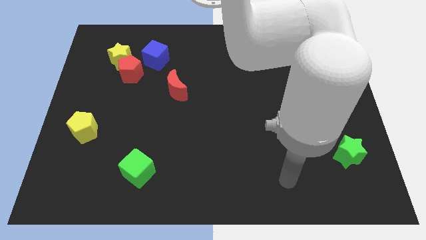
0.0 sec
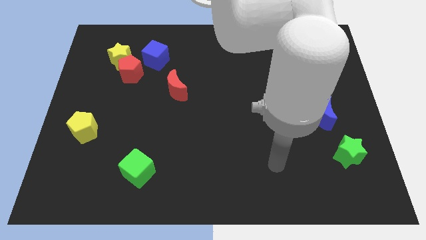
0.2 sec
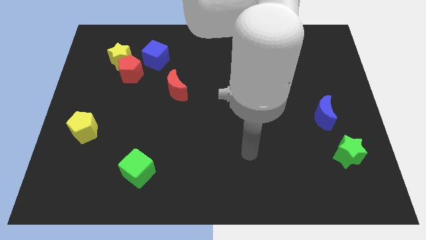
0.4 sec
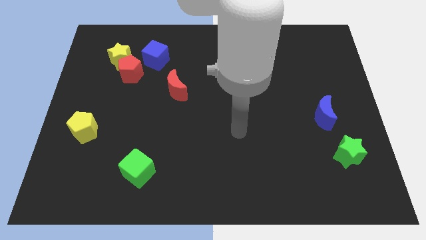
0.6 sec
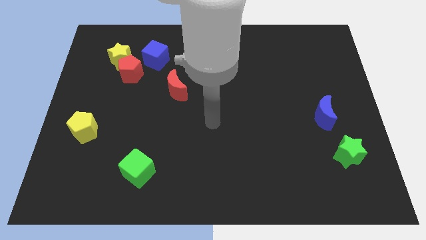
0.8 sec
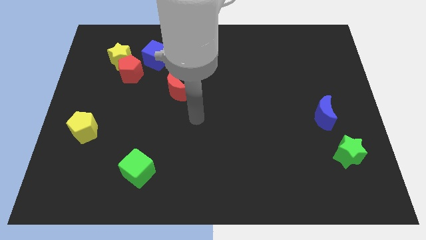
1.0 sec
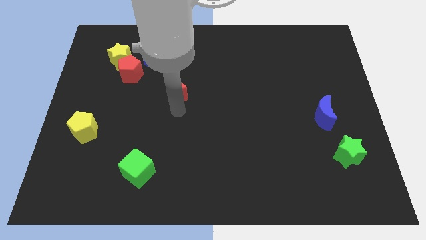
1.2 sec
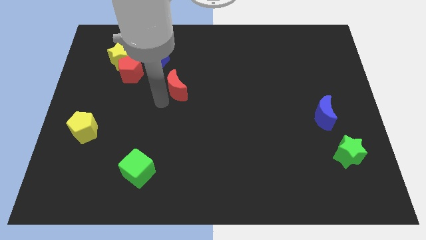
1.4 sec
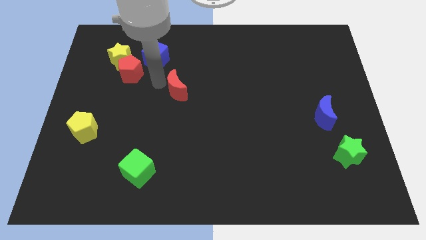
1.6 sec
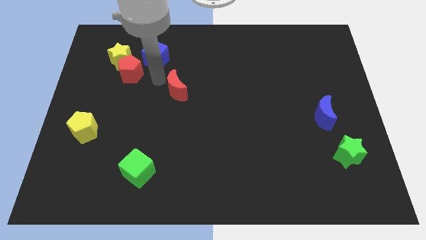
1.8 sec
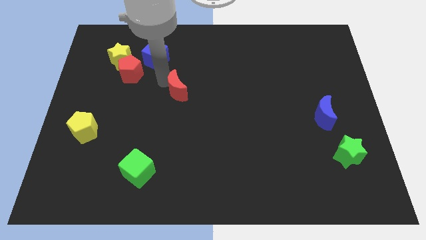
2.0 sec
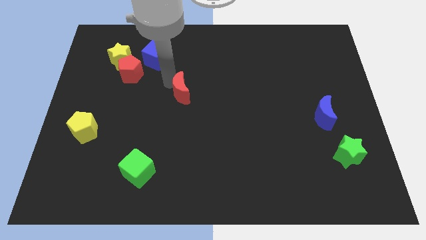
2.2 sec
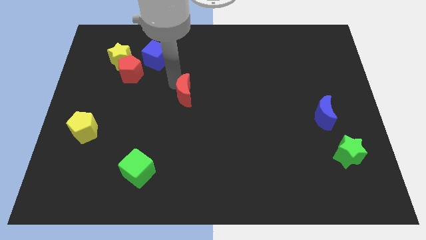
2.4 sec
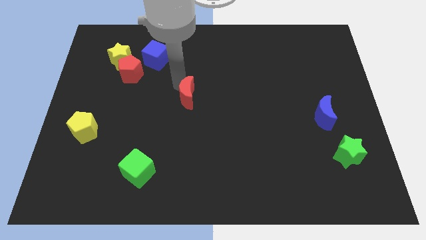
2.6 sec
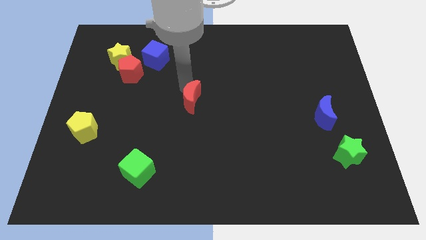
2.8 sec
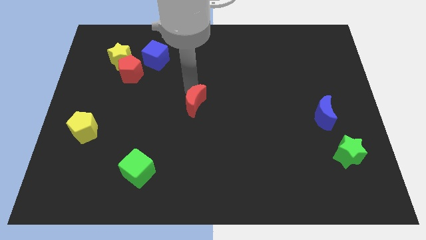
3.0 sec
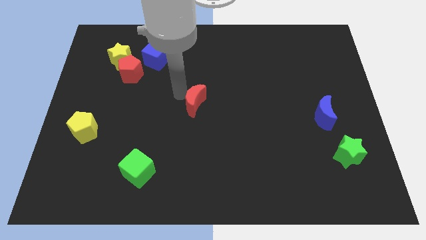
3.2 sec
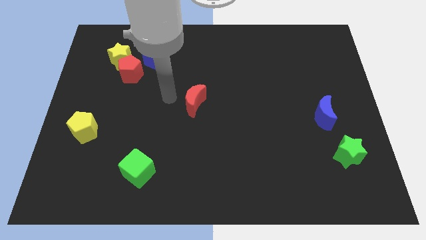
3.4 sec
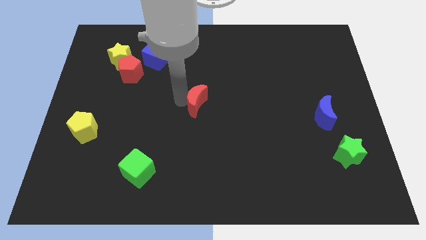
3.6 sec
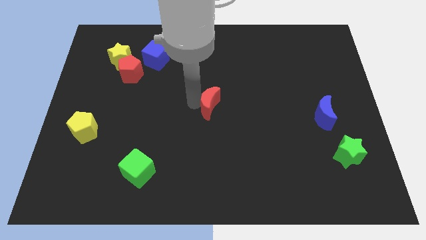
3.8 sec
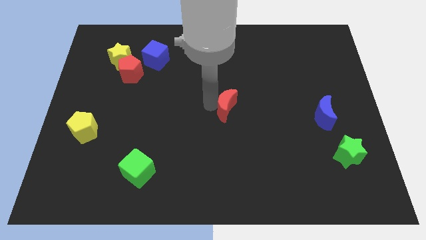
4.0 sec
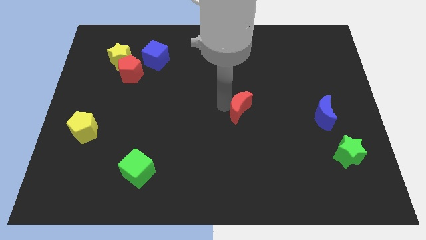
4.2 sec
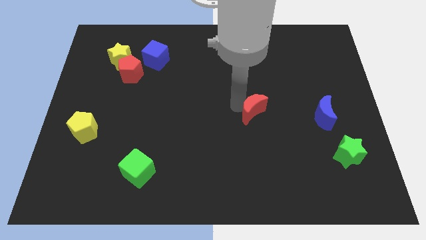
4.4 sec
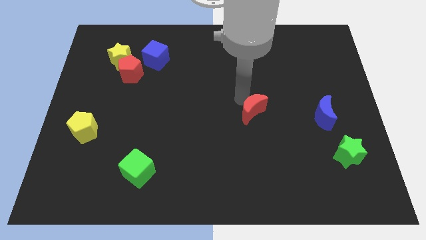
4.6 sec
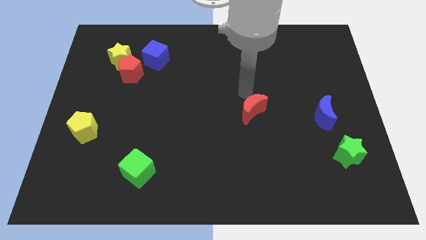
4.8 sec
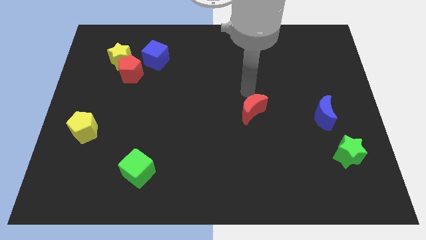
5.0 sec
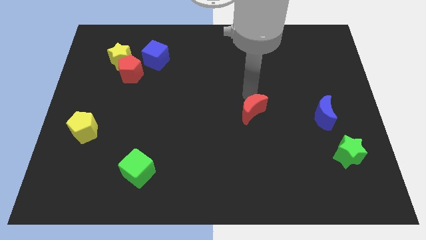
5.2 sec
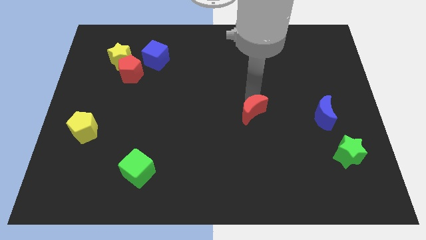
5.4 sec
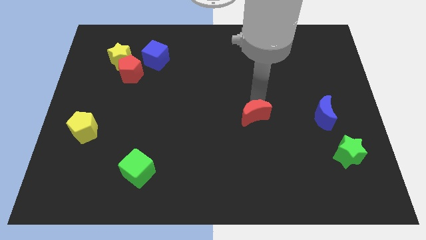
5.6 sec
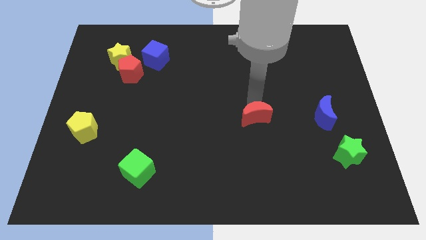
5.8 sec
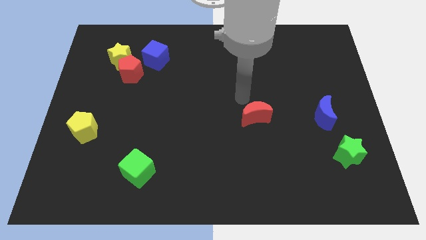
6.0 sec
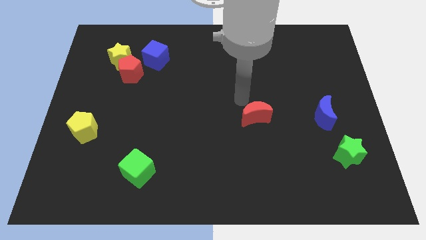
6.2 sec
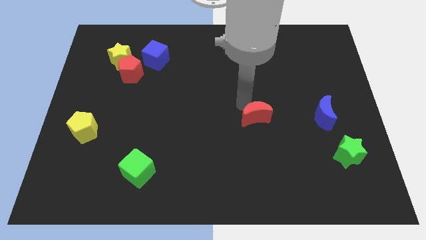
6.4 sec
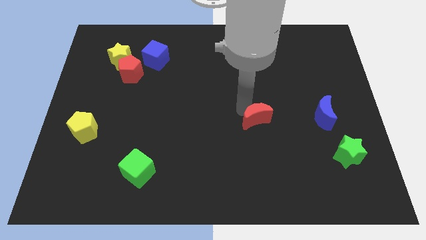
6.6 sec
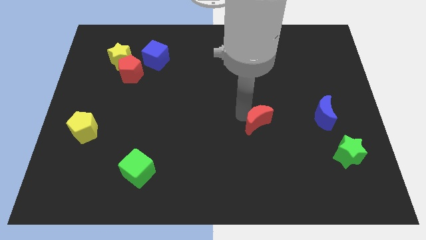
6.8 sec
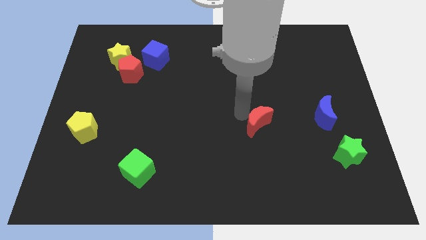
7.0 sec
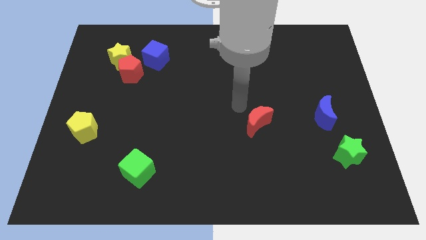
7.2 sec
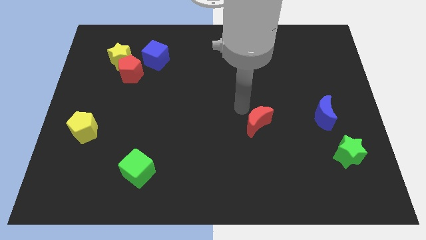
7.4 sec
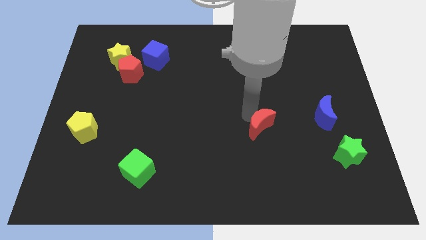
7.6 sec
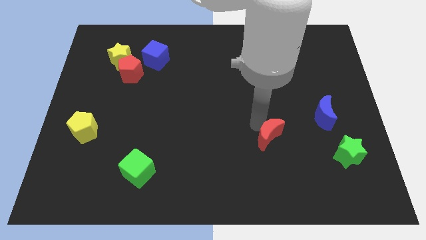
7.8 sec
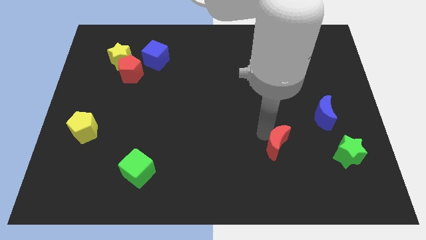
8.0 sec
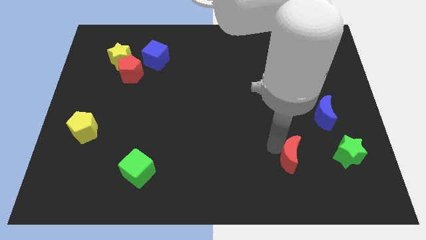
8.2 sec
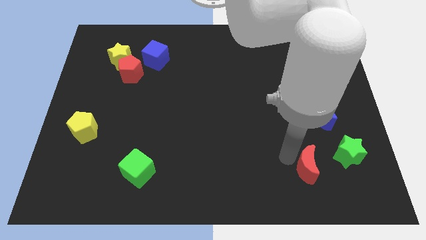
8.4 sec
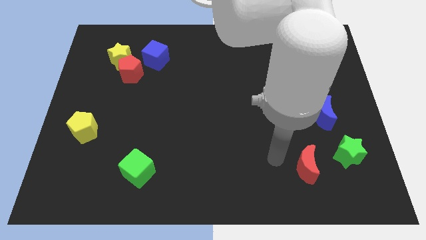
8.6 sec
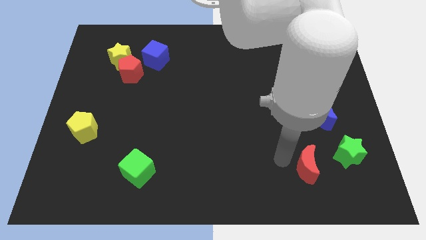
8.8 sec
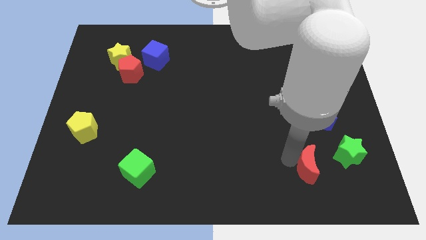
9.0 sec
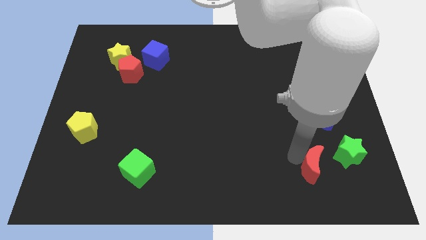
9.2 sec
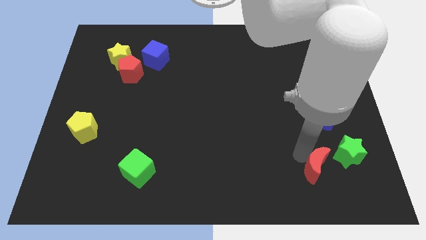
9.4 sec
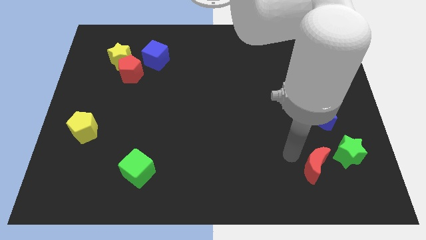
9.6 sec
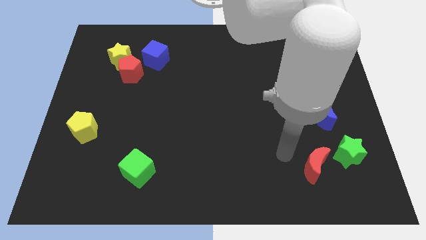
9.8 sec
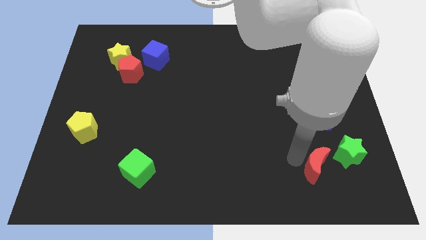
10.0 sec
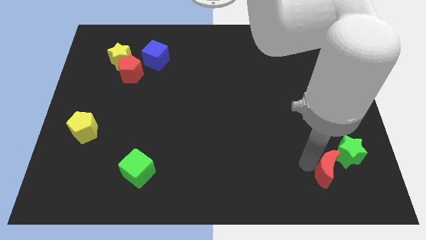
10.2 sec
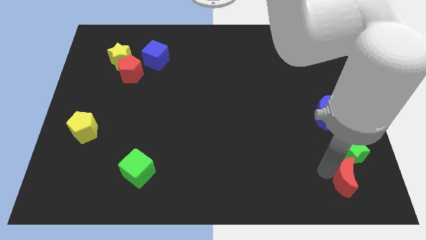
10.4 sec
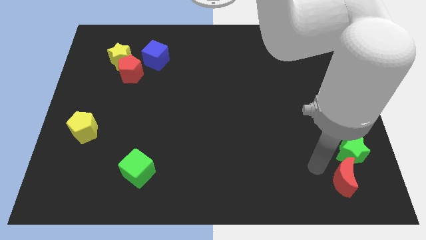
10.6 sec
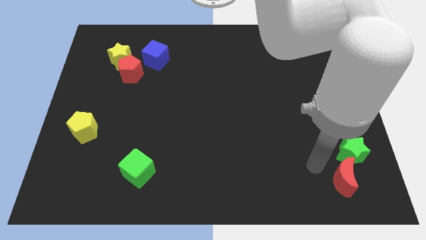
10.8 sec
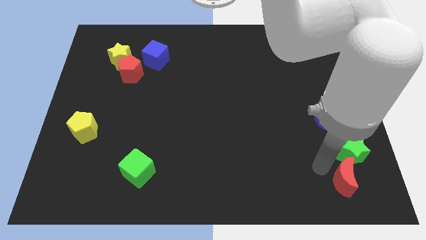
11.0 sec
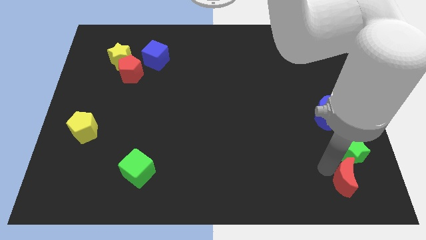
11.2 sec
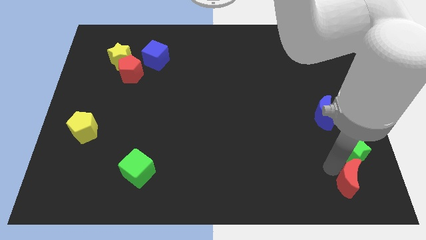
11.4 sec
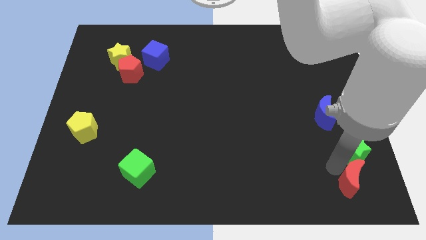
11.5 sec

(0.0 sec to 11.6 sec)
push the red moon to the bottom right

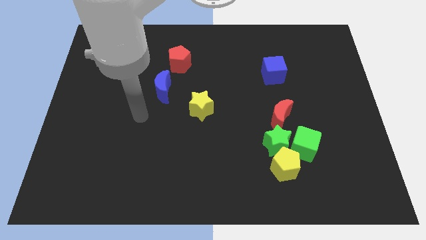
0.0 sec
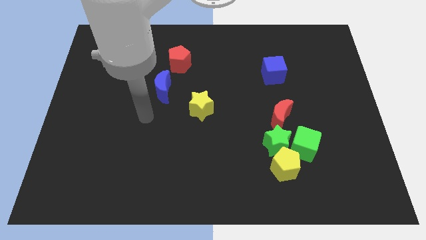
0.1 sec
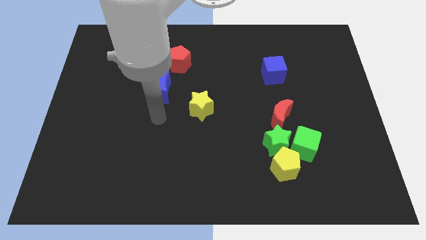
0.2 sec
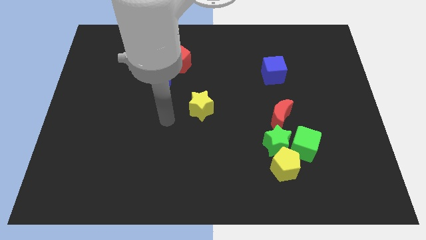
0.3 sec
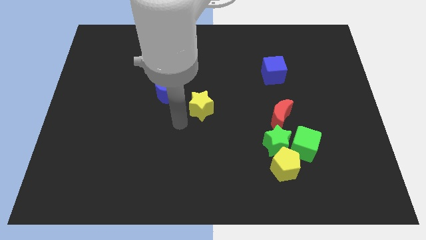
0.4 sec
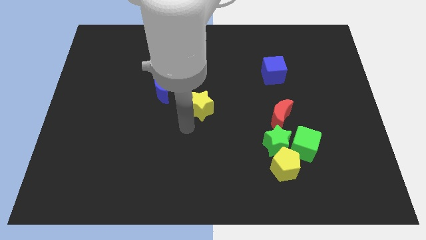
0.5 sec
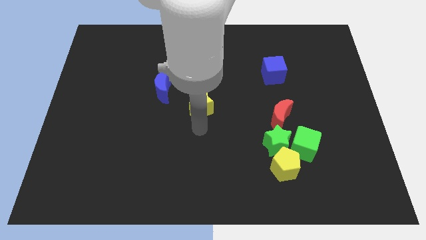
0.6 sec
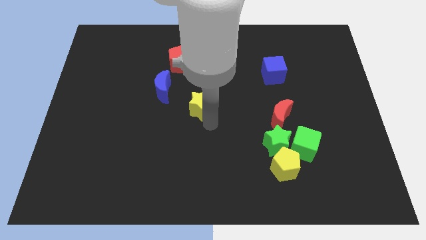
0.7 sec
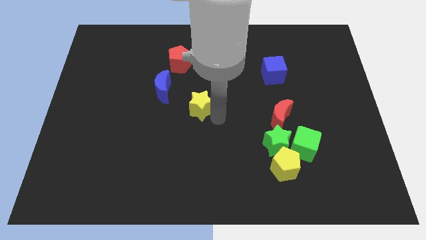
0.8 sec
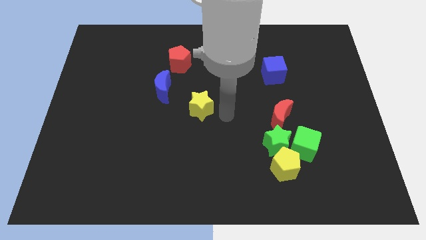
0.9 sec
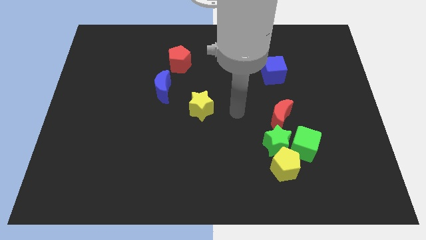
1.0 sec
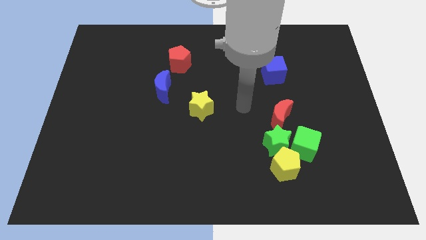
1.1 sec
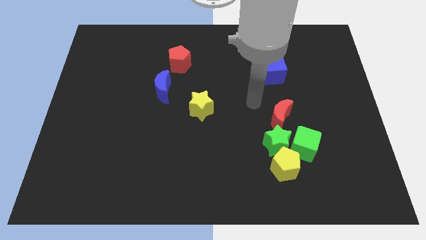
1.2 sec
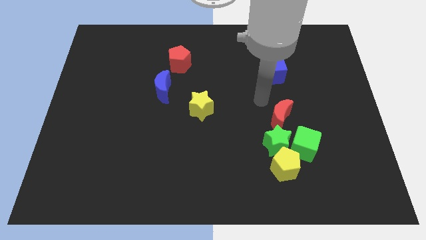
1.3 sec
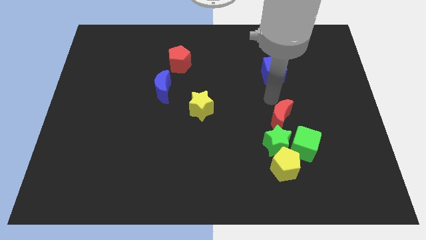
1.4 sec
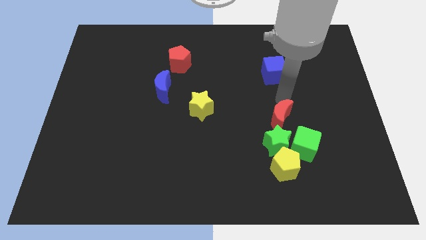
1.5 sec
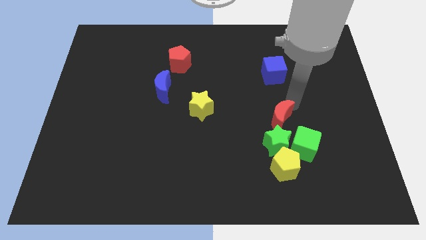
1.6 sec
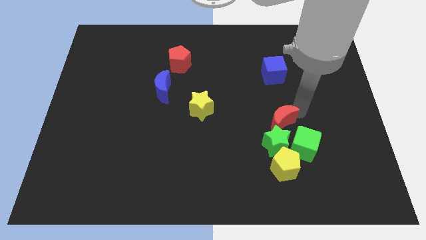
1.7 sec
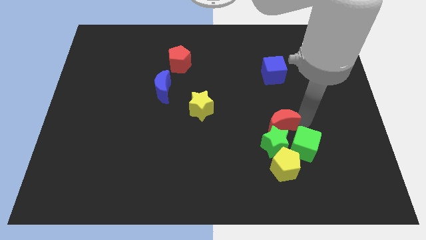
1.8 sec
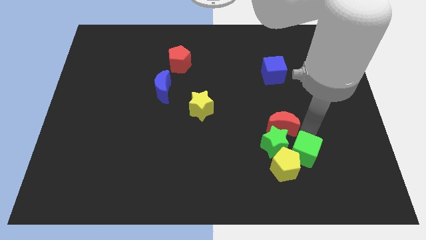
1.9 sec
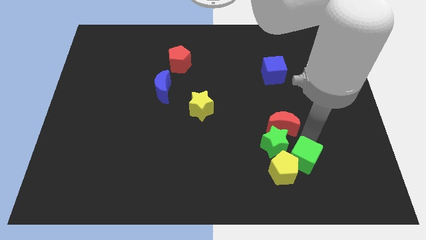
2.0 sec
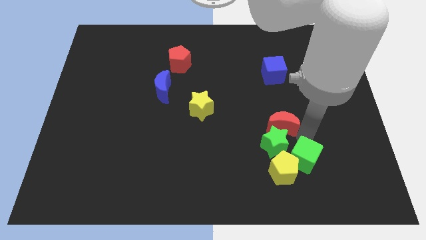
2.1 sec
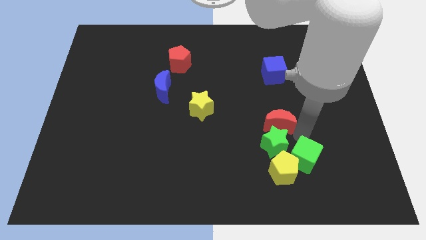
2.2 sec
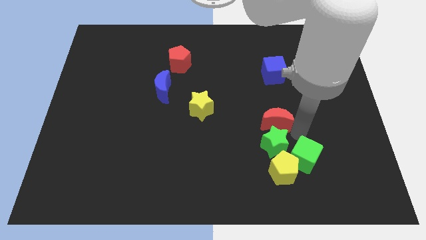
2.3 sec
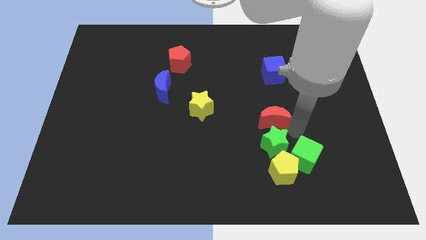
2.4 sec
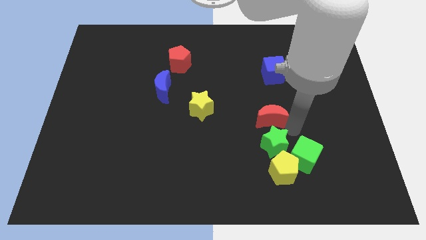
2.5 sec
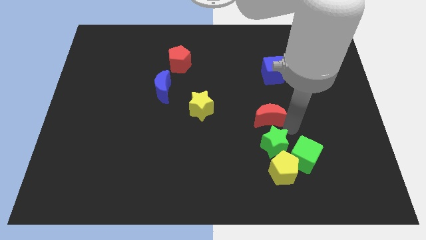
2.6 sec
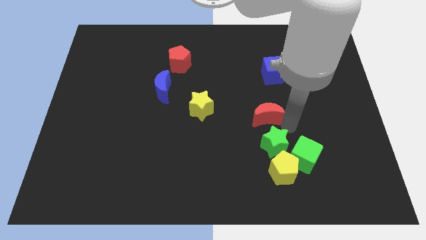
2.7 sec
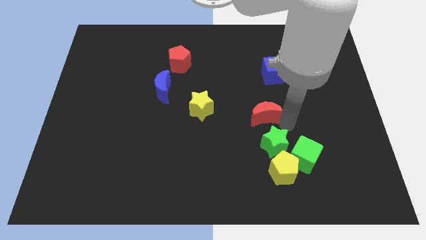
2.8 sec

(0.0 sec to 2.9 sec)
push the red moon to the center
